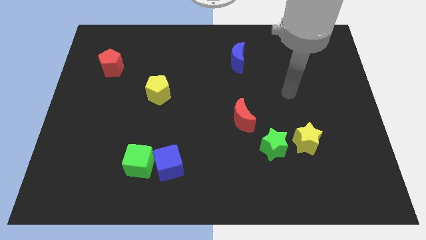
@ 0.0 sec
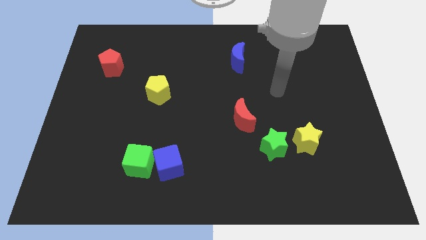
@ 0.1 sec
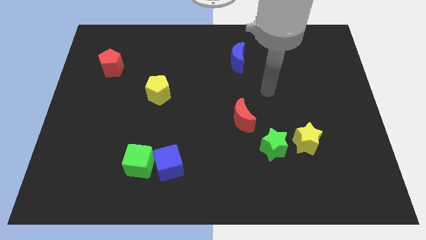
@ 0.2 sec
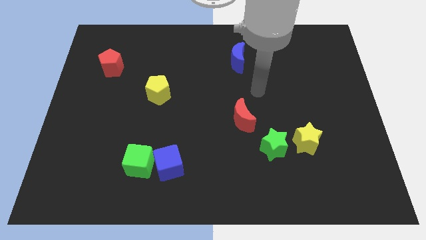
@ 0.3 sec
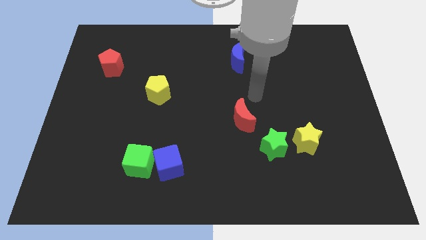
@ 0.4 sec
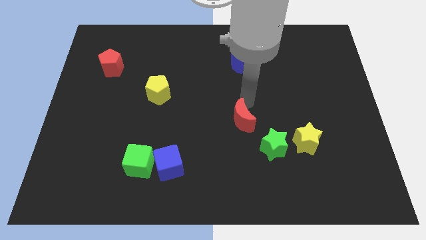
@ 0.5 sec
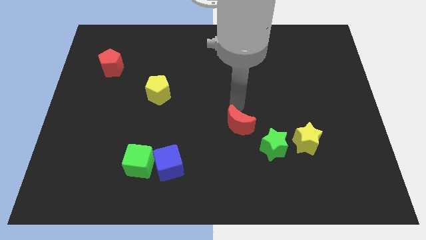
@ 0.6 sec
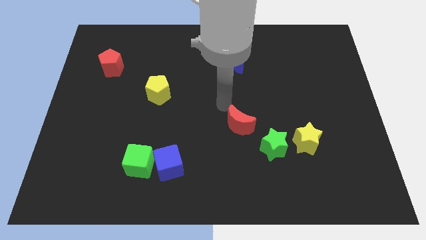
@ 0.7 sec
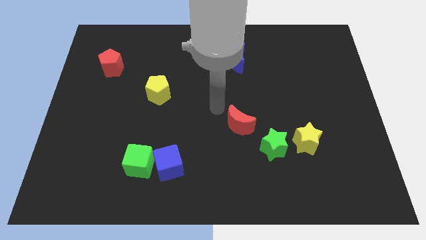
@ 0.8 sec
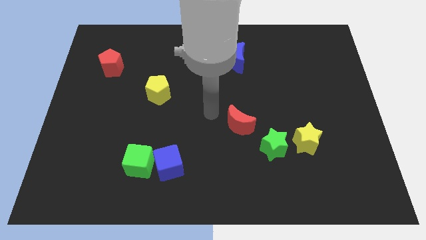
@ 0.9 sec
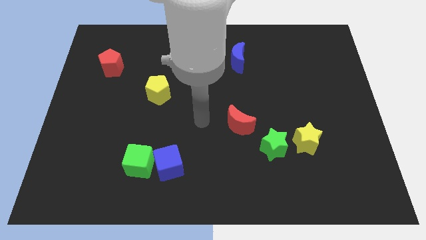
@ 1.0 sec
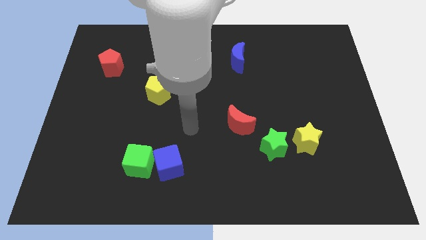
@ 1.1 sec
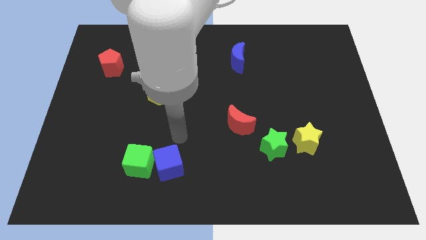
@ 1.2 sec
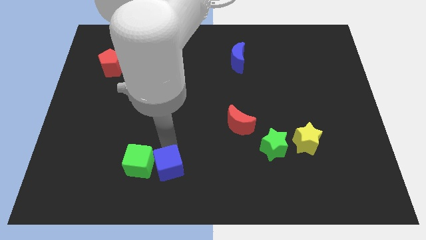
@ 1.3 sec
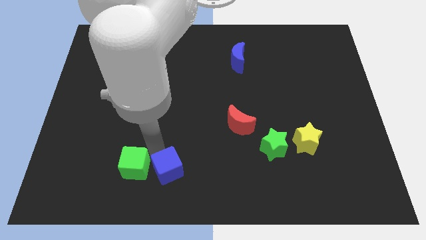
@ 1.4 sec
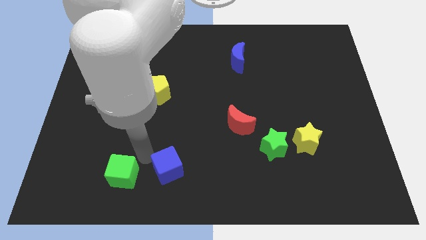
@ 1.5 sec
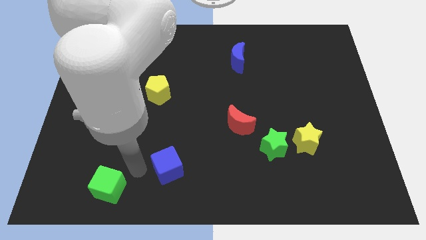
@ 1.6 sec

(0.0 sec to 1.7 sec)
pull the blue cube apart from the green cube

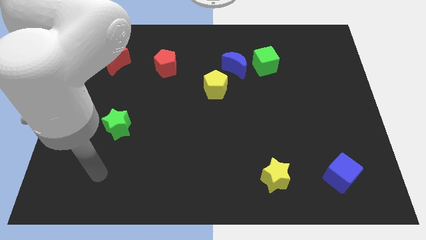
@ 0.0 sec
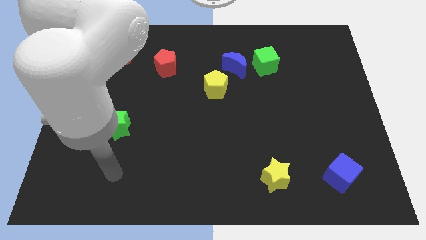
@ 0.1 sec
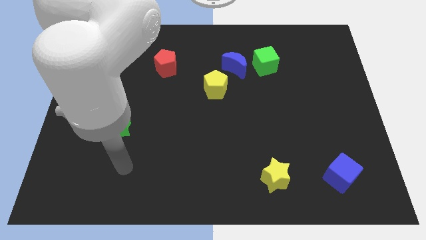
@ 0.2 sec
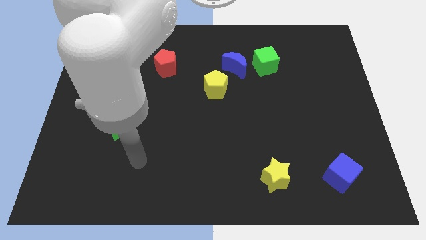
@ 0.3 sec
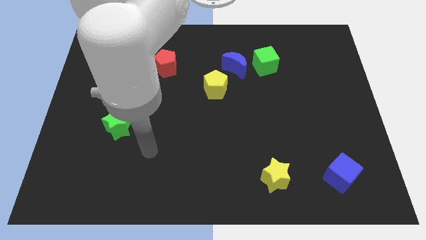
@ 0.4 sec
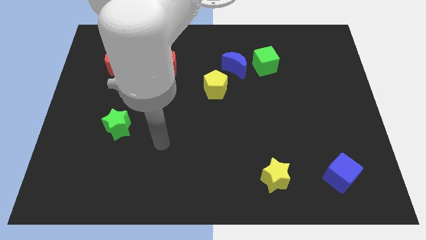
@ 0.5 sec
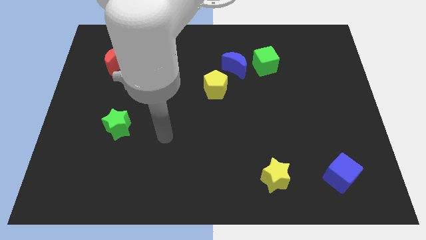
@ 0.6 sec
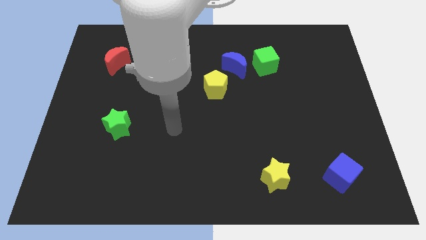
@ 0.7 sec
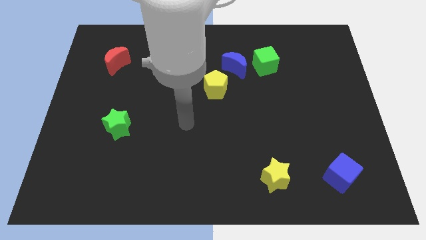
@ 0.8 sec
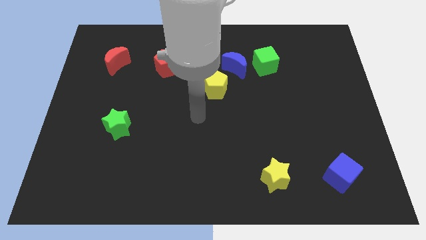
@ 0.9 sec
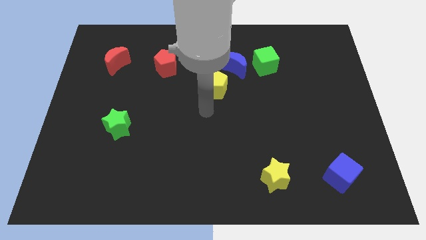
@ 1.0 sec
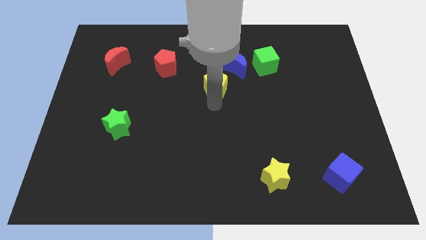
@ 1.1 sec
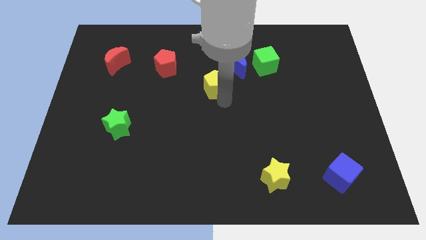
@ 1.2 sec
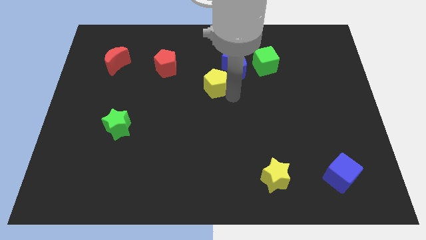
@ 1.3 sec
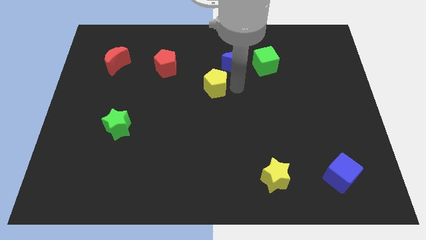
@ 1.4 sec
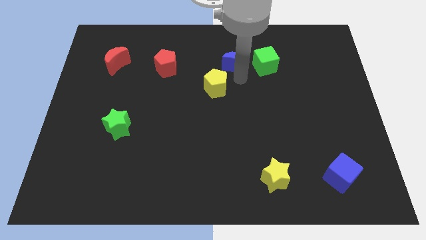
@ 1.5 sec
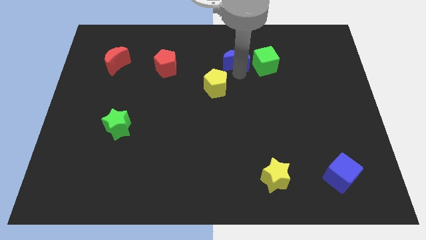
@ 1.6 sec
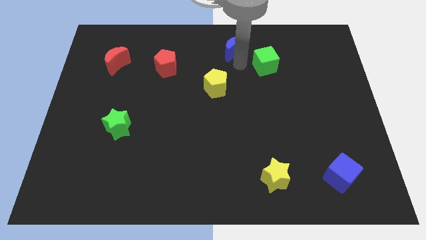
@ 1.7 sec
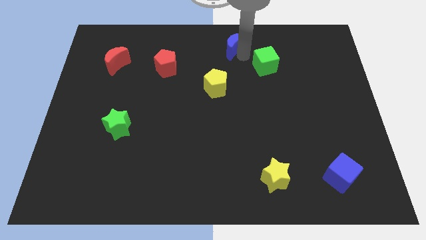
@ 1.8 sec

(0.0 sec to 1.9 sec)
move the green cube away from the blue moon

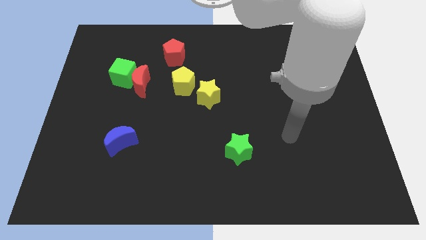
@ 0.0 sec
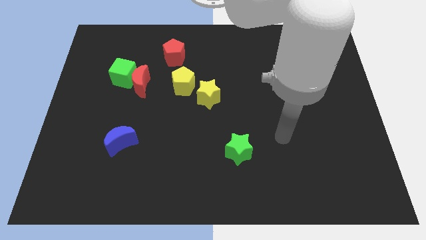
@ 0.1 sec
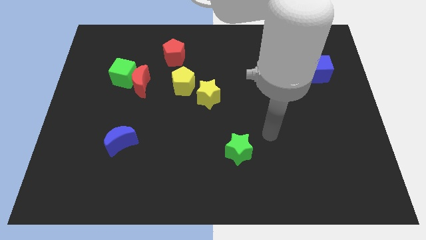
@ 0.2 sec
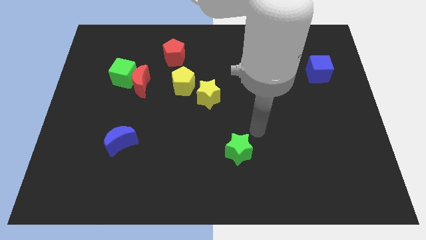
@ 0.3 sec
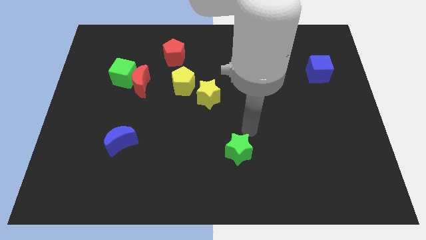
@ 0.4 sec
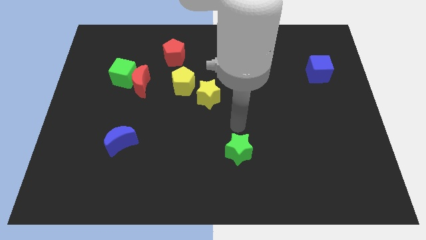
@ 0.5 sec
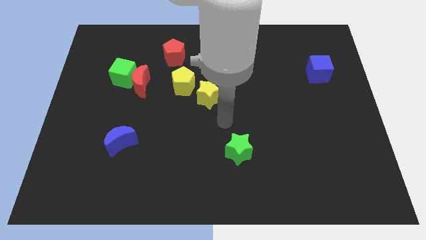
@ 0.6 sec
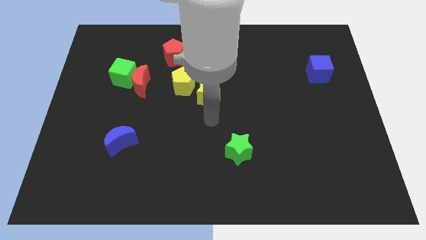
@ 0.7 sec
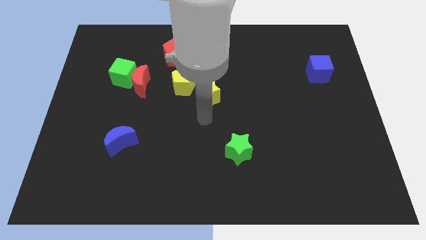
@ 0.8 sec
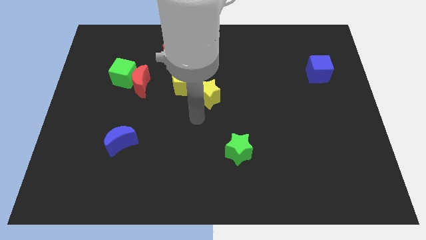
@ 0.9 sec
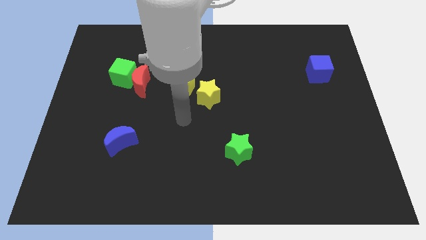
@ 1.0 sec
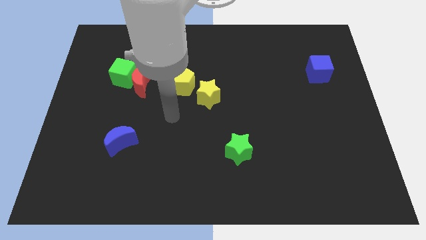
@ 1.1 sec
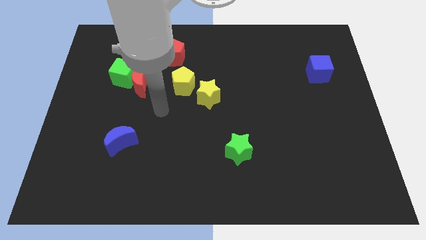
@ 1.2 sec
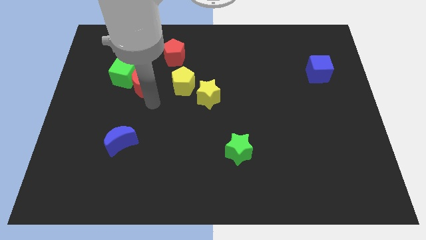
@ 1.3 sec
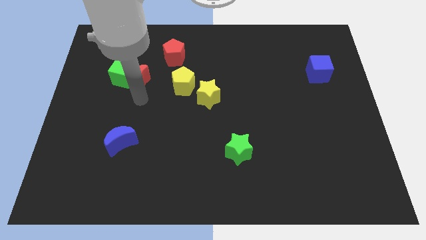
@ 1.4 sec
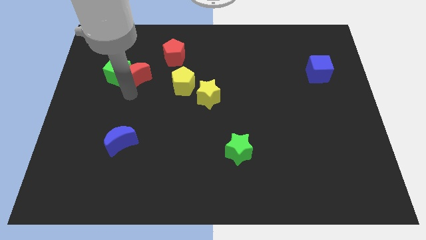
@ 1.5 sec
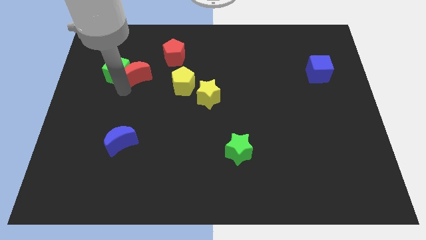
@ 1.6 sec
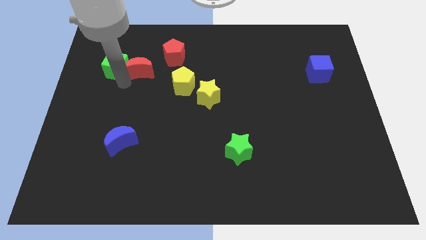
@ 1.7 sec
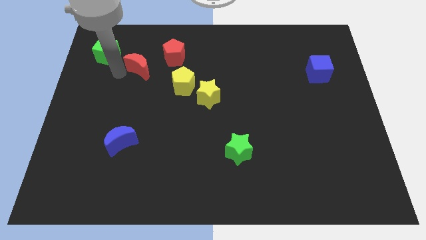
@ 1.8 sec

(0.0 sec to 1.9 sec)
pull the red moon apart from the green cube

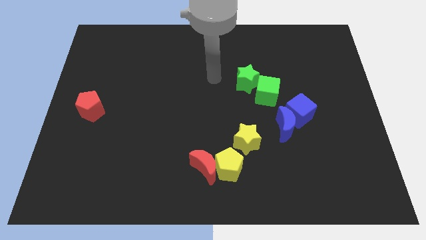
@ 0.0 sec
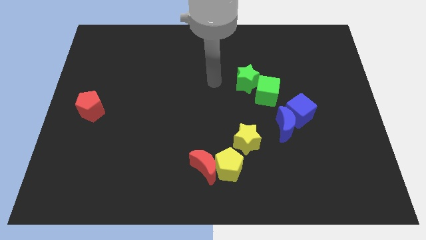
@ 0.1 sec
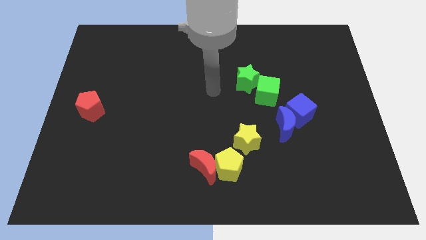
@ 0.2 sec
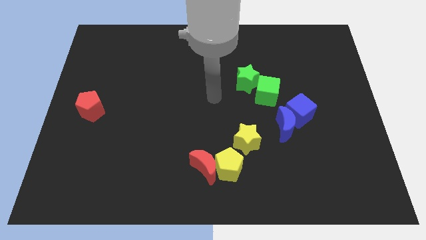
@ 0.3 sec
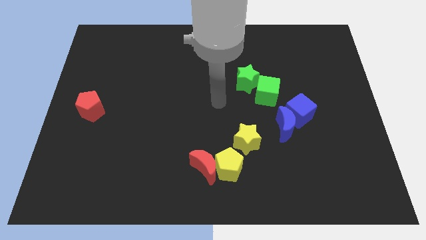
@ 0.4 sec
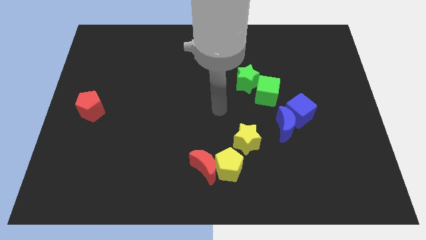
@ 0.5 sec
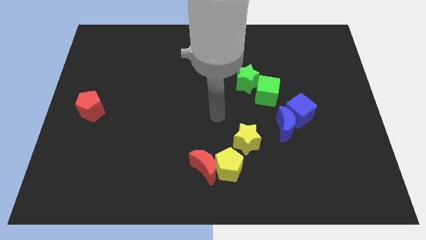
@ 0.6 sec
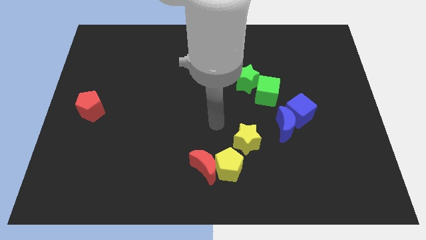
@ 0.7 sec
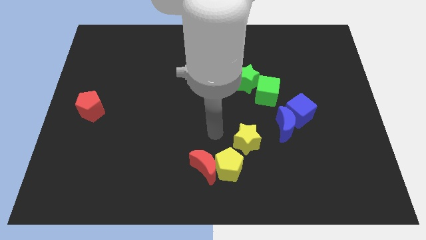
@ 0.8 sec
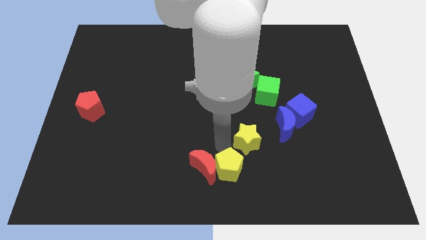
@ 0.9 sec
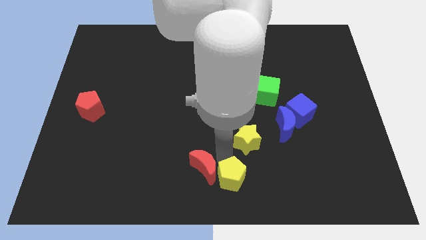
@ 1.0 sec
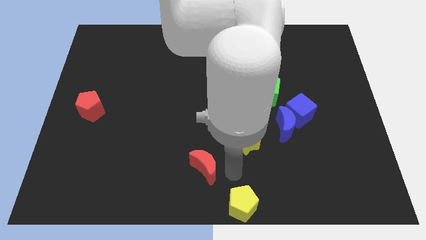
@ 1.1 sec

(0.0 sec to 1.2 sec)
separate the red moon from the yellow pentagon

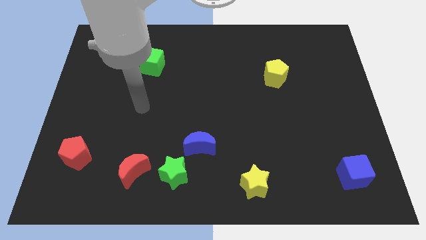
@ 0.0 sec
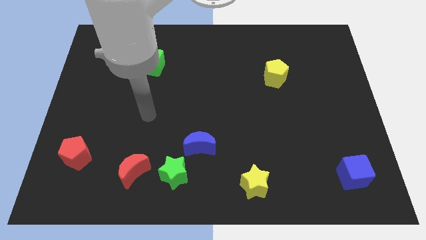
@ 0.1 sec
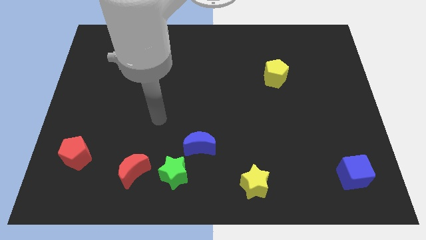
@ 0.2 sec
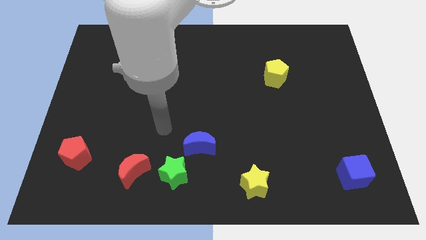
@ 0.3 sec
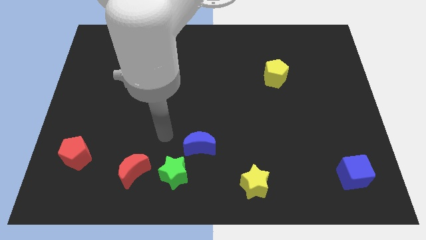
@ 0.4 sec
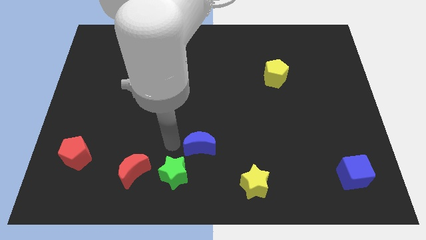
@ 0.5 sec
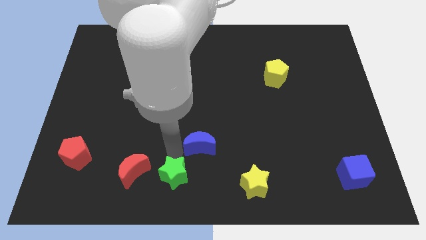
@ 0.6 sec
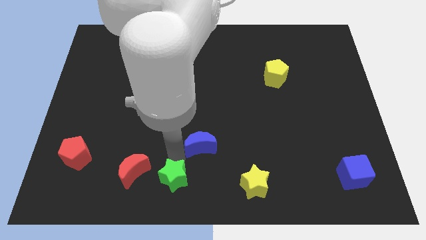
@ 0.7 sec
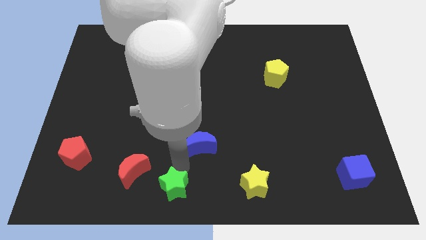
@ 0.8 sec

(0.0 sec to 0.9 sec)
move the blue moon away from the green star

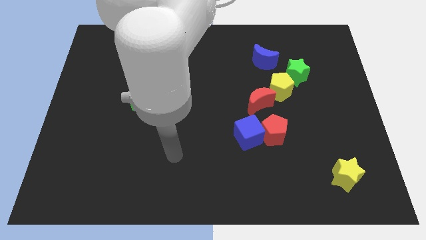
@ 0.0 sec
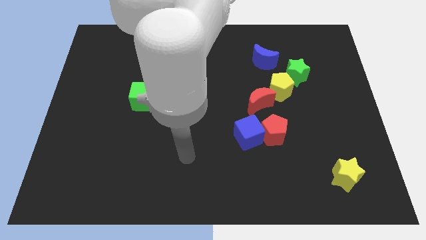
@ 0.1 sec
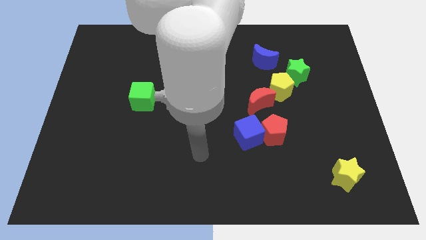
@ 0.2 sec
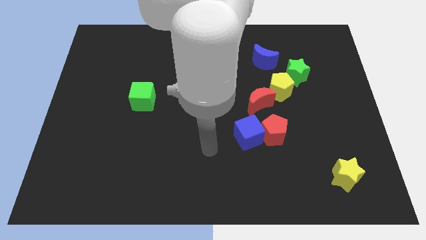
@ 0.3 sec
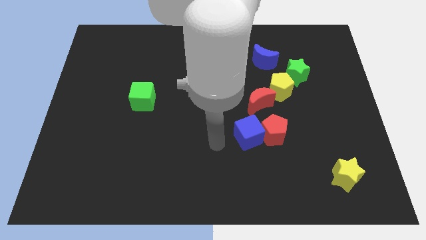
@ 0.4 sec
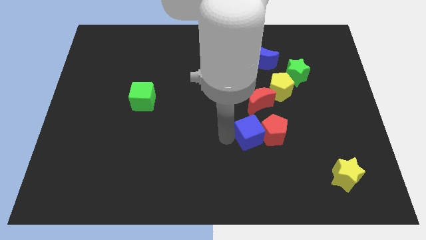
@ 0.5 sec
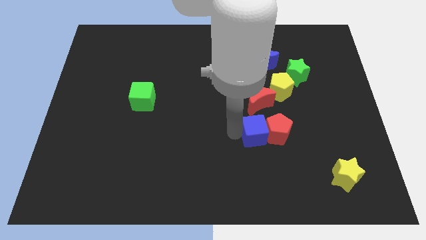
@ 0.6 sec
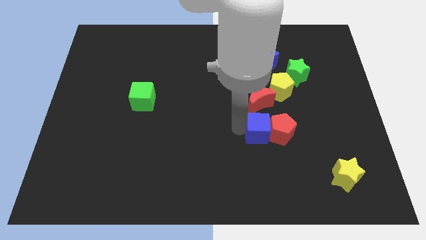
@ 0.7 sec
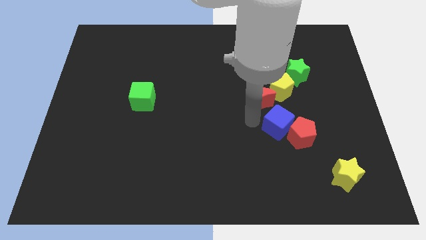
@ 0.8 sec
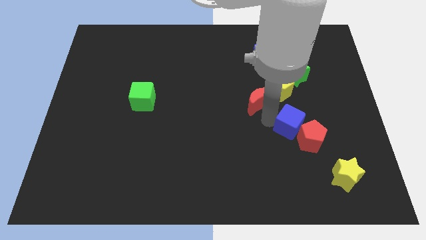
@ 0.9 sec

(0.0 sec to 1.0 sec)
separate the red pentagon from the blue cube and red moon

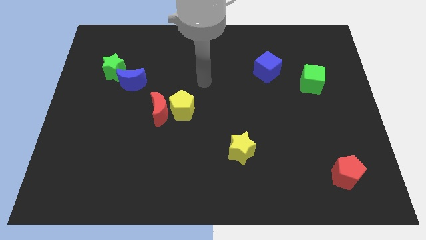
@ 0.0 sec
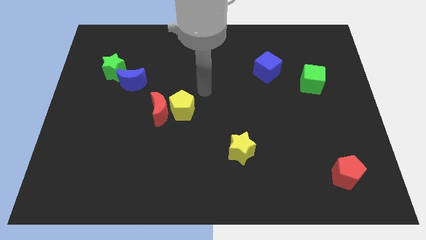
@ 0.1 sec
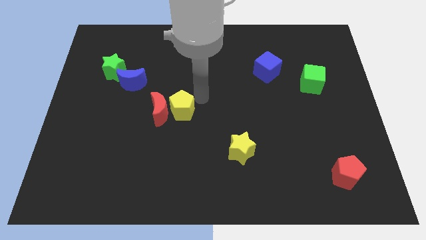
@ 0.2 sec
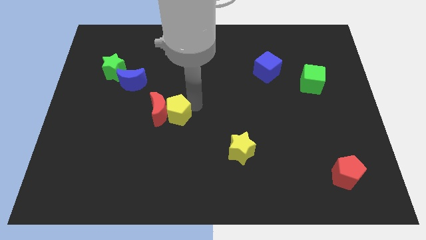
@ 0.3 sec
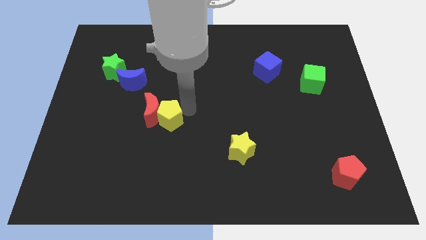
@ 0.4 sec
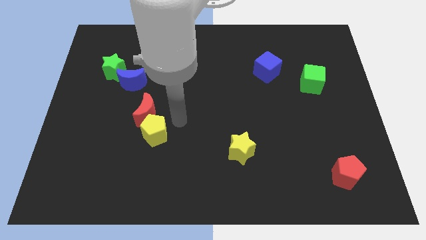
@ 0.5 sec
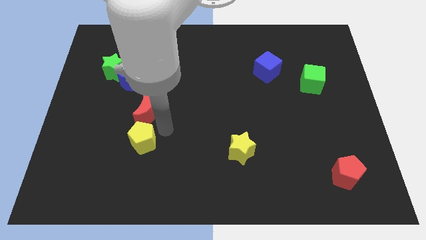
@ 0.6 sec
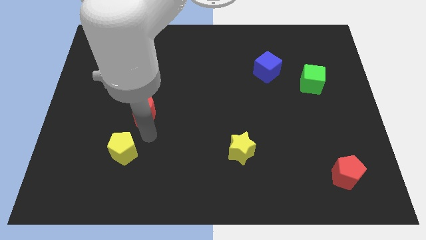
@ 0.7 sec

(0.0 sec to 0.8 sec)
move the red moon away from the yellow pentagon
